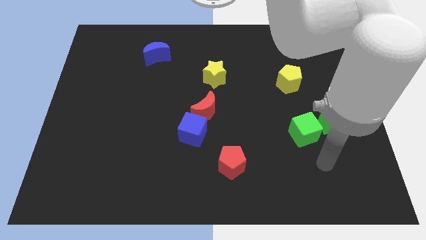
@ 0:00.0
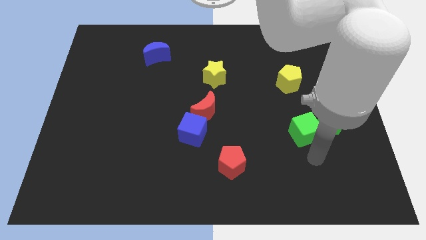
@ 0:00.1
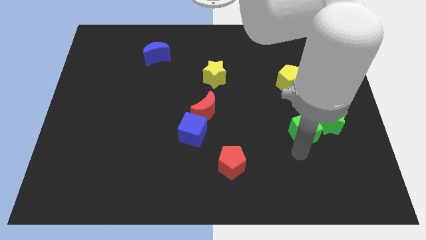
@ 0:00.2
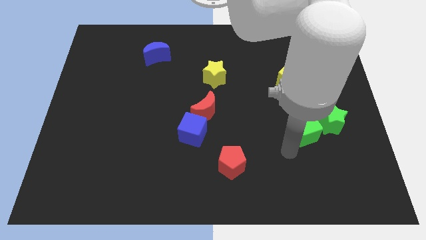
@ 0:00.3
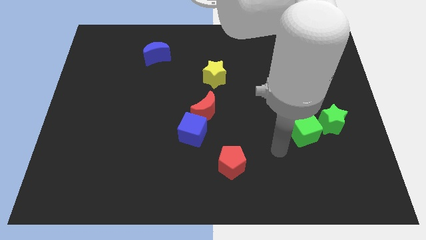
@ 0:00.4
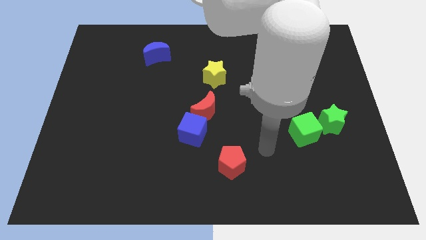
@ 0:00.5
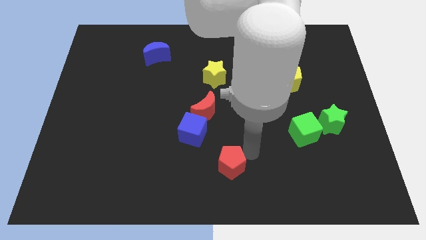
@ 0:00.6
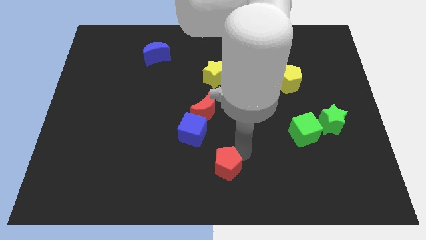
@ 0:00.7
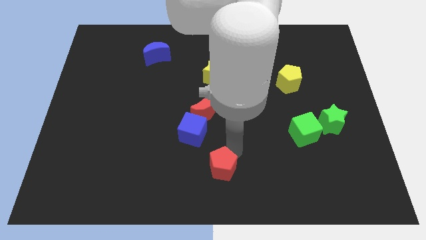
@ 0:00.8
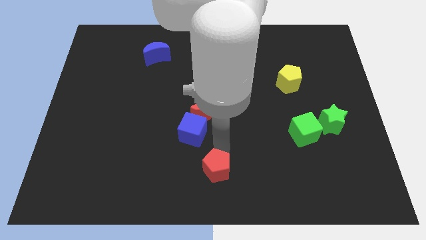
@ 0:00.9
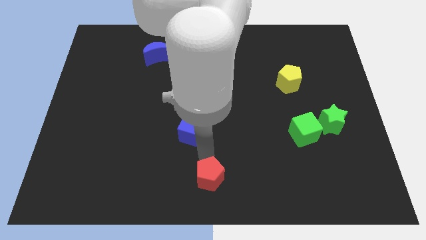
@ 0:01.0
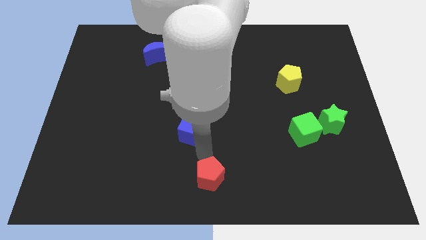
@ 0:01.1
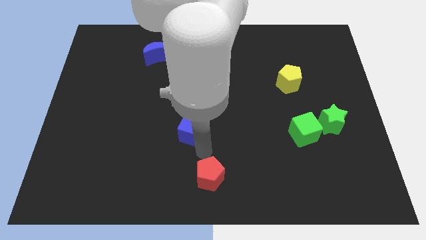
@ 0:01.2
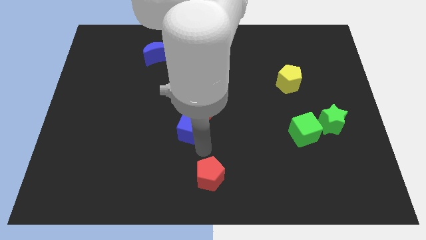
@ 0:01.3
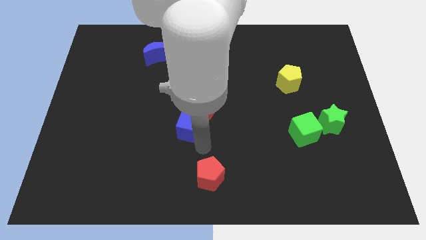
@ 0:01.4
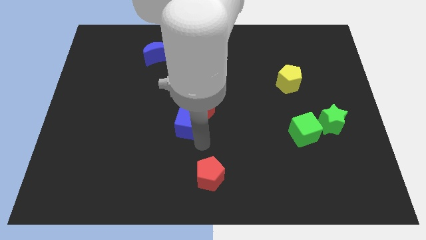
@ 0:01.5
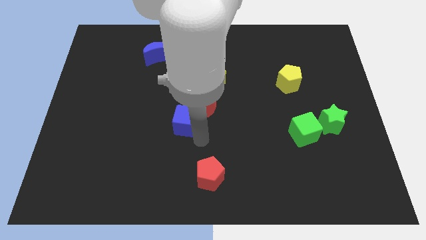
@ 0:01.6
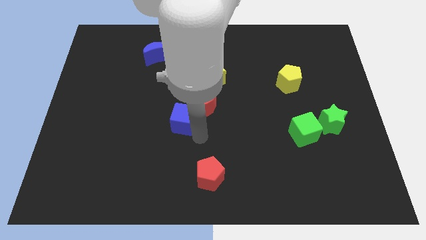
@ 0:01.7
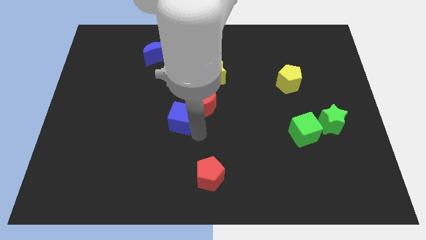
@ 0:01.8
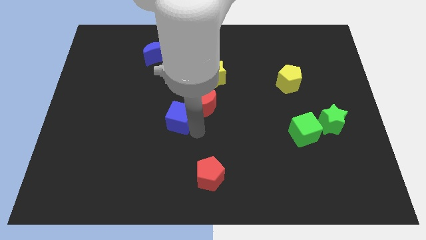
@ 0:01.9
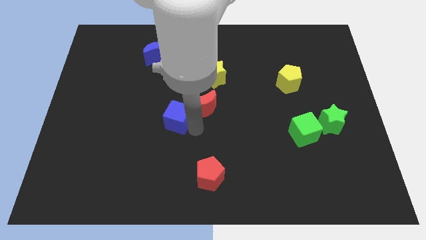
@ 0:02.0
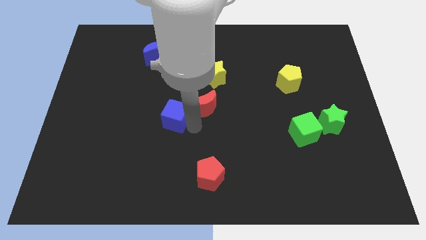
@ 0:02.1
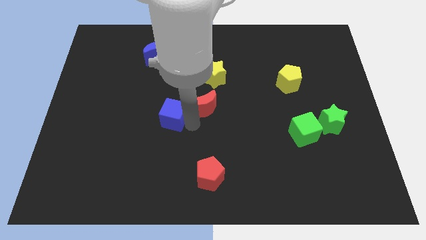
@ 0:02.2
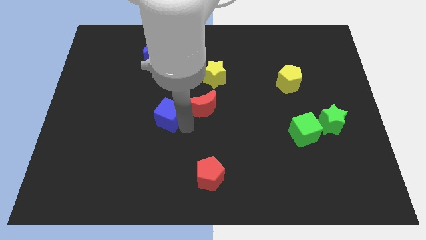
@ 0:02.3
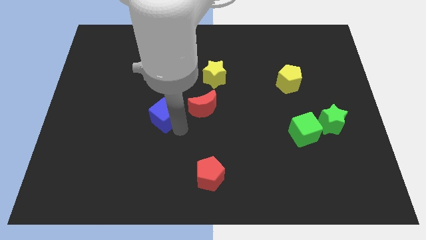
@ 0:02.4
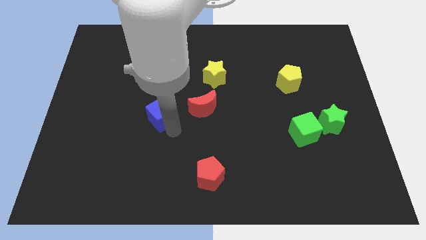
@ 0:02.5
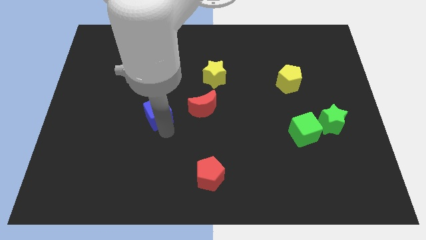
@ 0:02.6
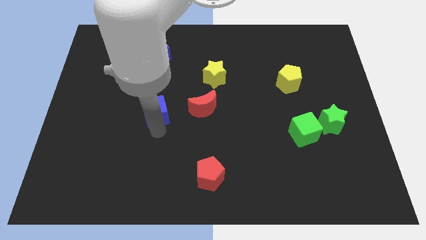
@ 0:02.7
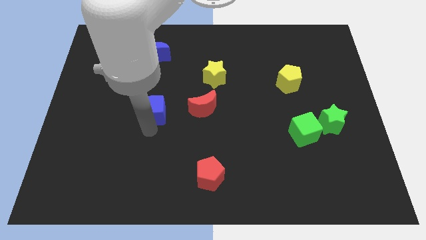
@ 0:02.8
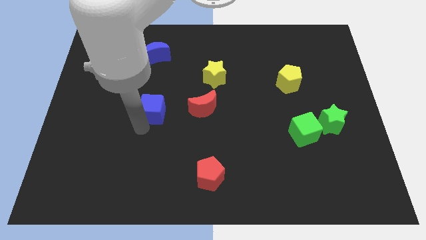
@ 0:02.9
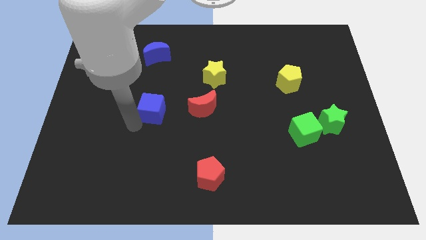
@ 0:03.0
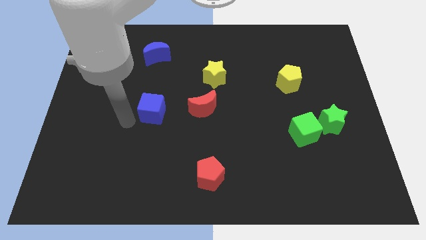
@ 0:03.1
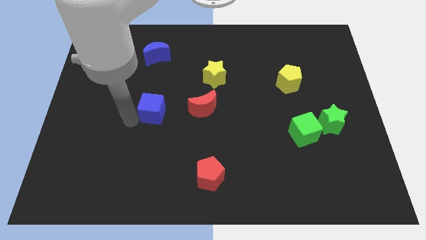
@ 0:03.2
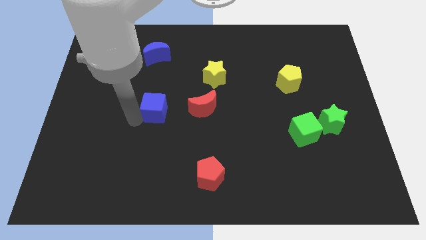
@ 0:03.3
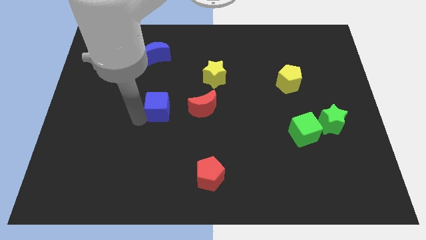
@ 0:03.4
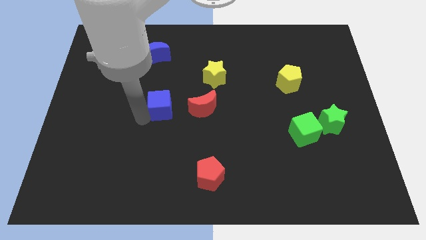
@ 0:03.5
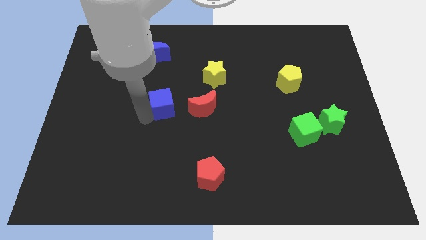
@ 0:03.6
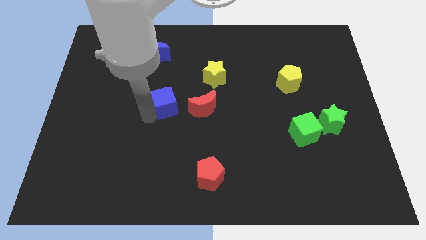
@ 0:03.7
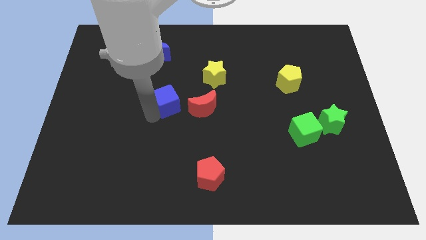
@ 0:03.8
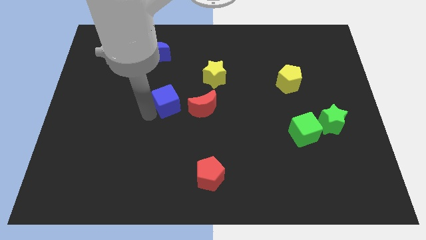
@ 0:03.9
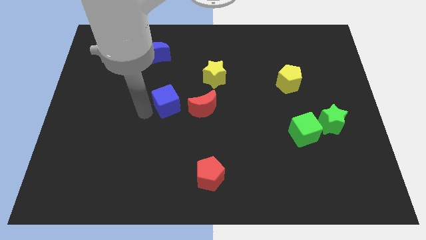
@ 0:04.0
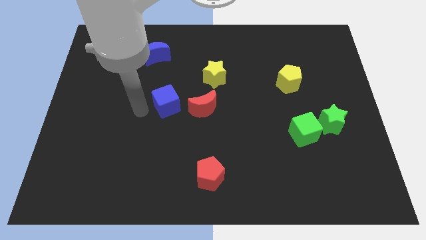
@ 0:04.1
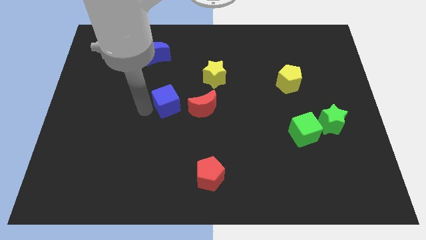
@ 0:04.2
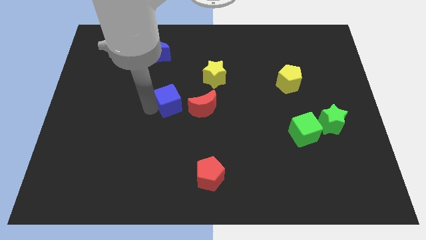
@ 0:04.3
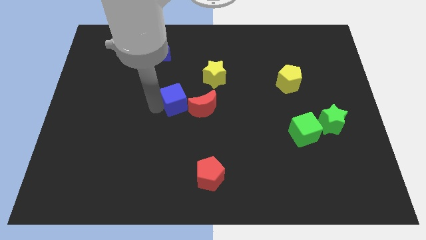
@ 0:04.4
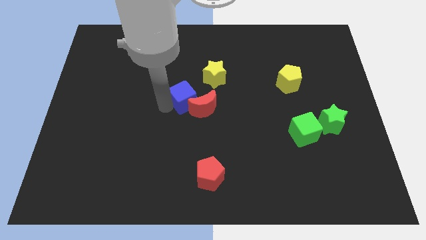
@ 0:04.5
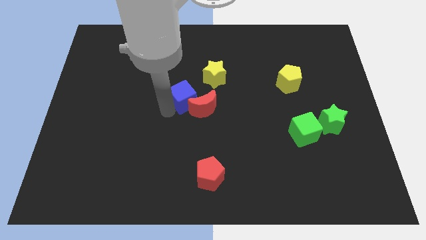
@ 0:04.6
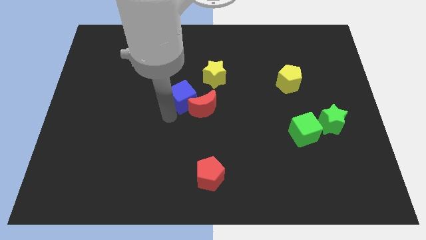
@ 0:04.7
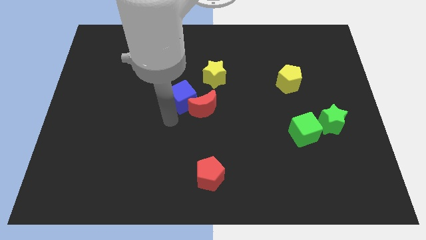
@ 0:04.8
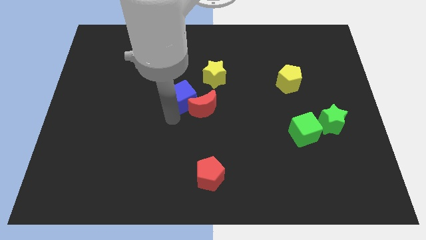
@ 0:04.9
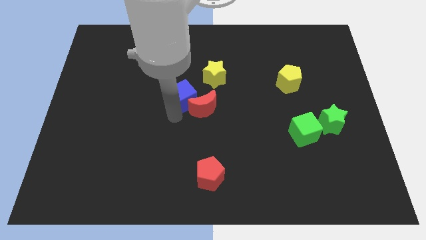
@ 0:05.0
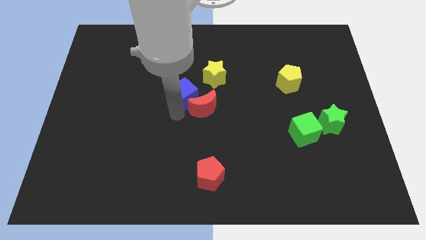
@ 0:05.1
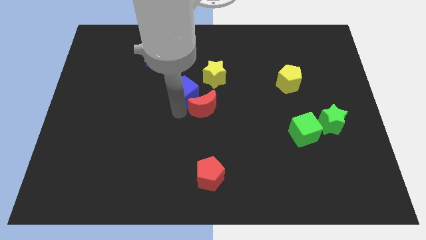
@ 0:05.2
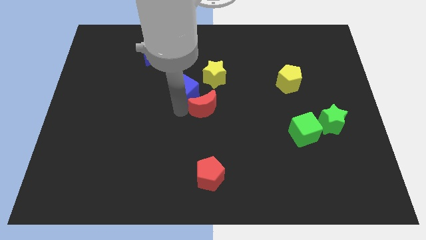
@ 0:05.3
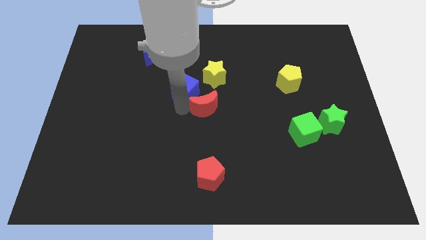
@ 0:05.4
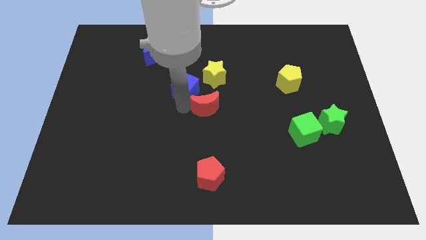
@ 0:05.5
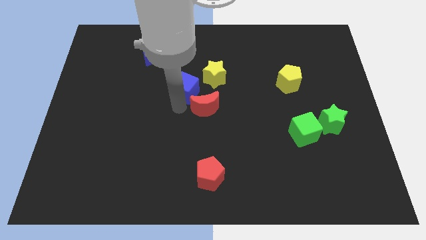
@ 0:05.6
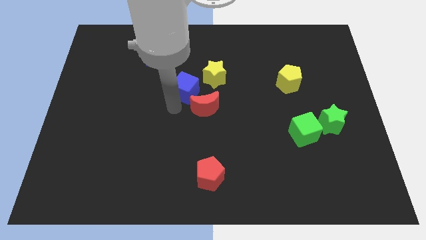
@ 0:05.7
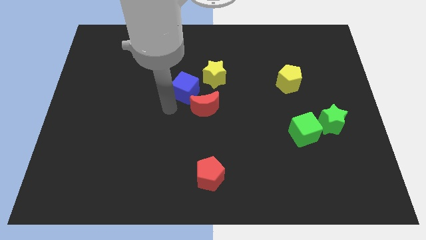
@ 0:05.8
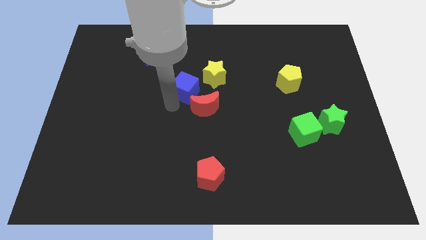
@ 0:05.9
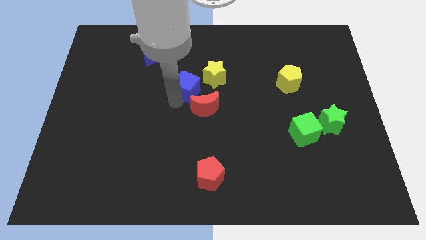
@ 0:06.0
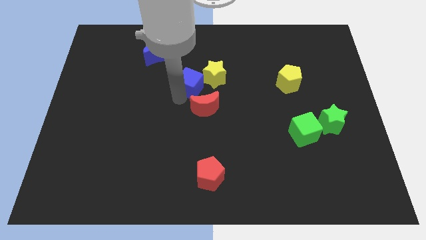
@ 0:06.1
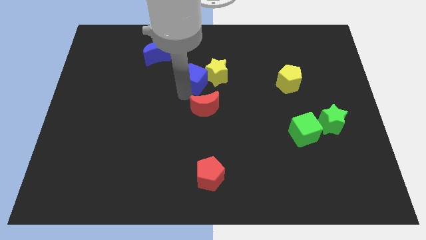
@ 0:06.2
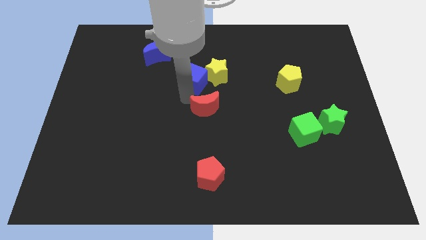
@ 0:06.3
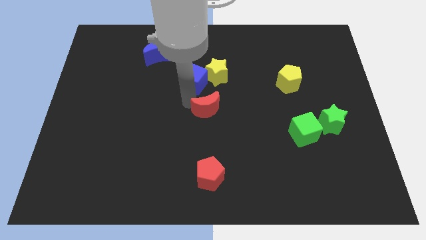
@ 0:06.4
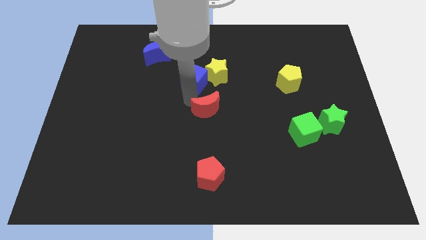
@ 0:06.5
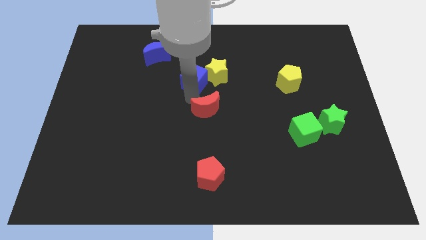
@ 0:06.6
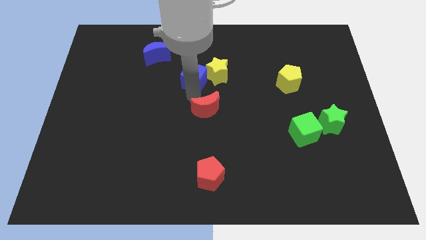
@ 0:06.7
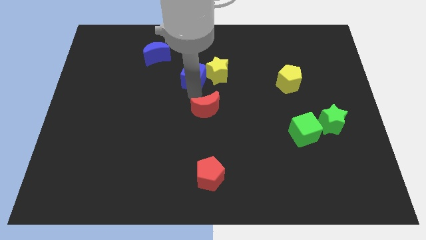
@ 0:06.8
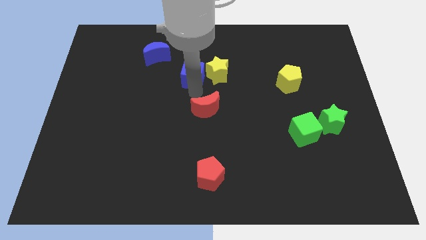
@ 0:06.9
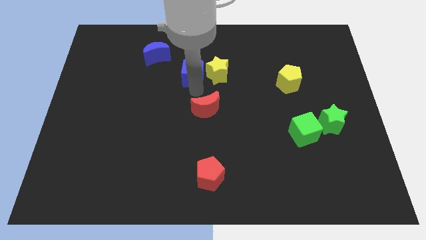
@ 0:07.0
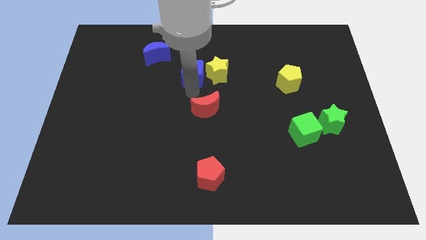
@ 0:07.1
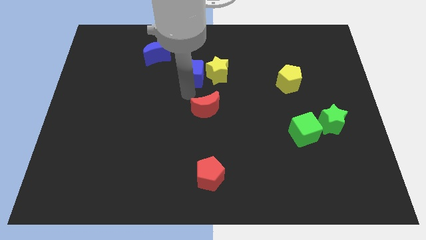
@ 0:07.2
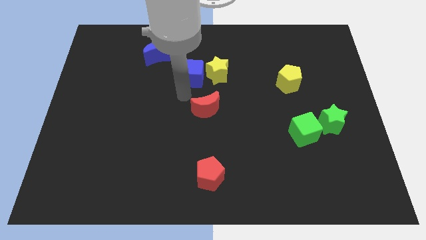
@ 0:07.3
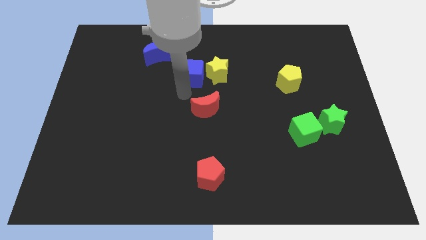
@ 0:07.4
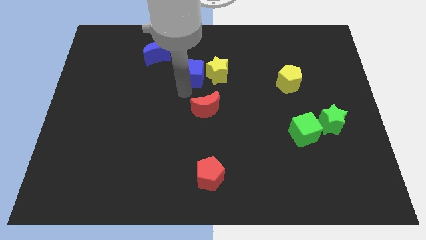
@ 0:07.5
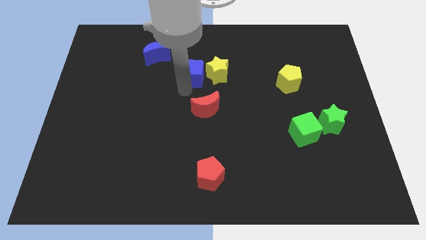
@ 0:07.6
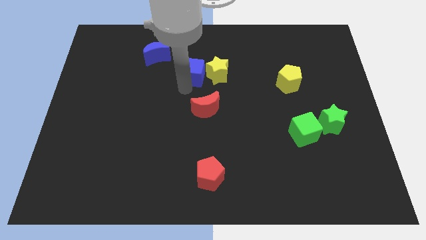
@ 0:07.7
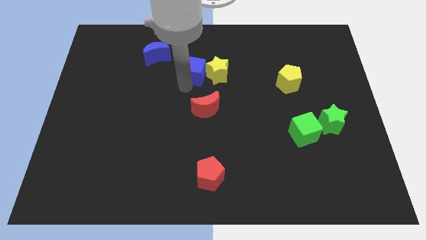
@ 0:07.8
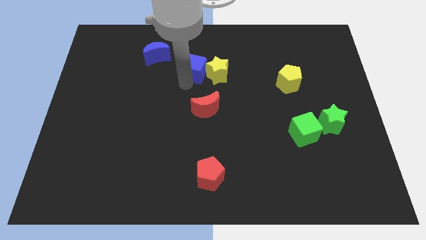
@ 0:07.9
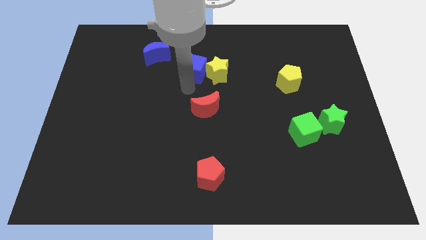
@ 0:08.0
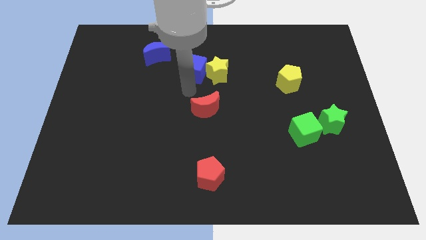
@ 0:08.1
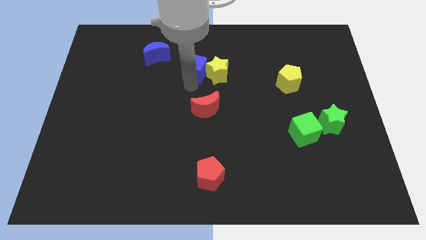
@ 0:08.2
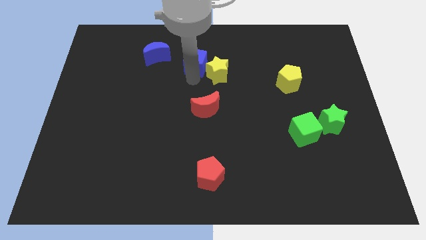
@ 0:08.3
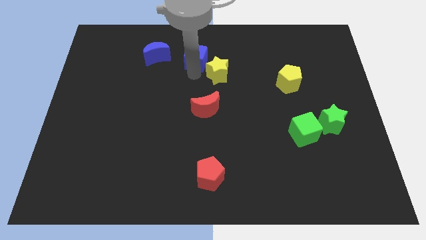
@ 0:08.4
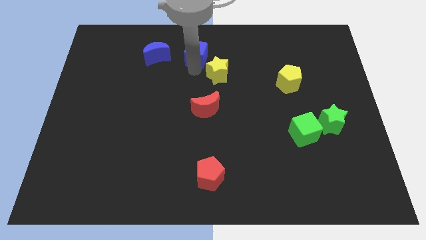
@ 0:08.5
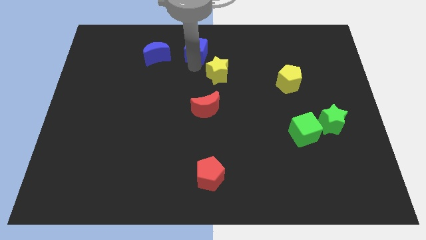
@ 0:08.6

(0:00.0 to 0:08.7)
move the blue cube to the top side
